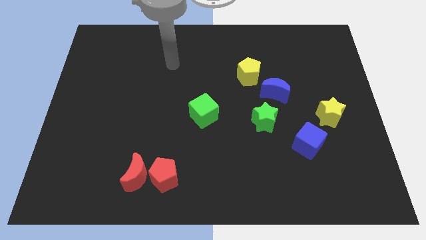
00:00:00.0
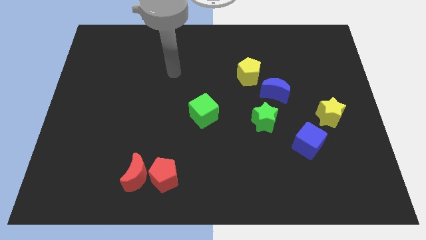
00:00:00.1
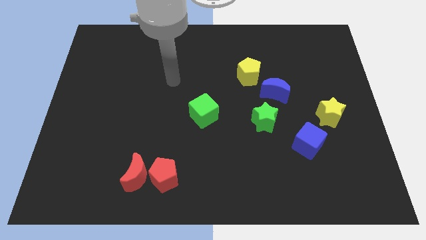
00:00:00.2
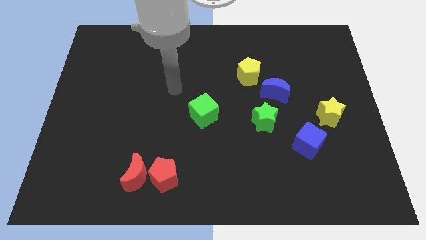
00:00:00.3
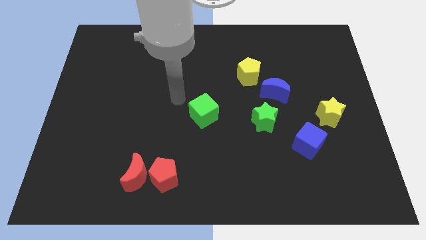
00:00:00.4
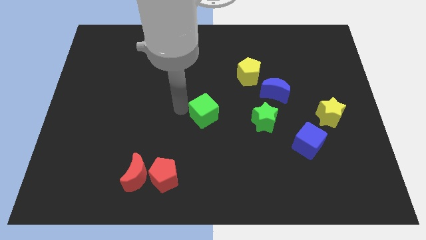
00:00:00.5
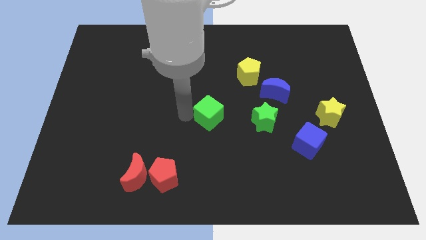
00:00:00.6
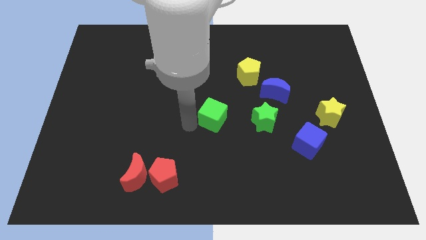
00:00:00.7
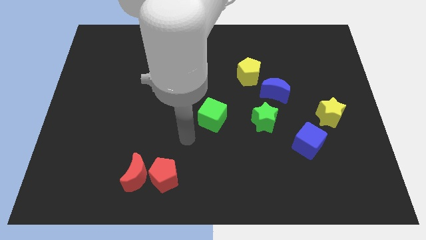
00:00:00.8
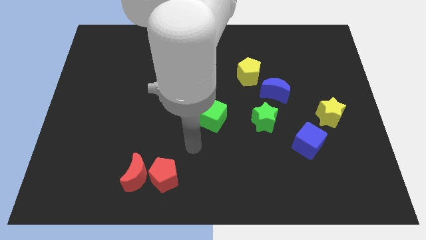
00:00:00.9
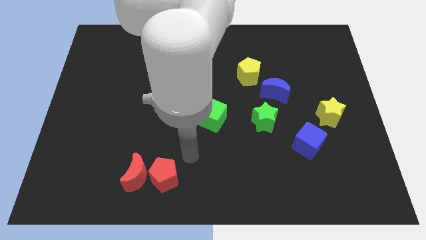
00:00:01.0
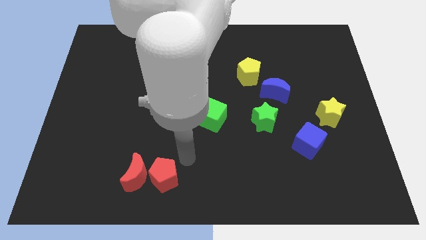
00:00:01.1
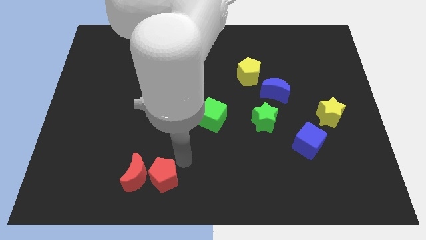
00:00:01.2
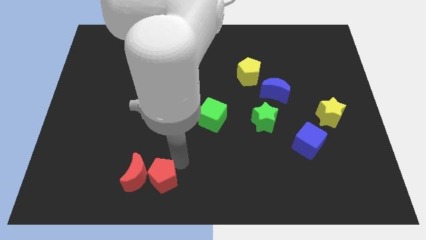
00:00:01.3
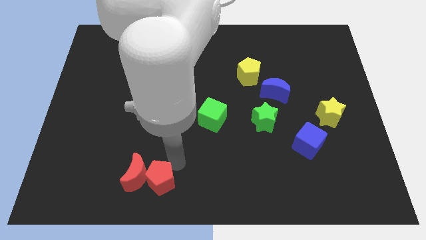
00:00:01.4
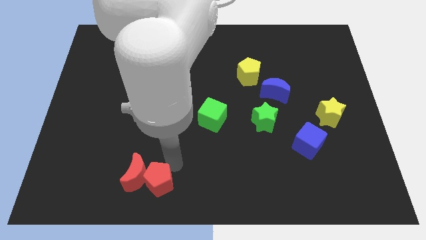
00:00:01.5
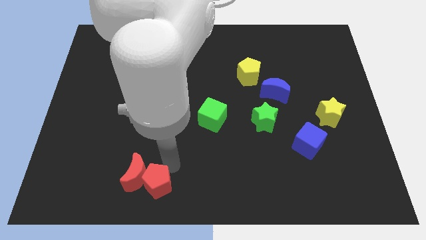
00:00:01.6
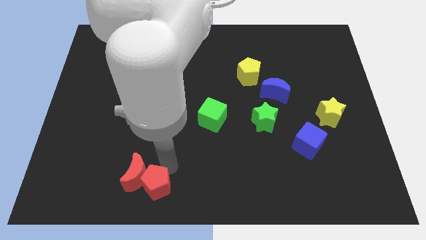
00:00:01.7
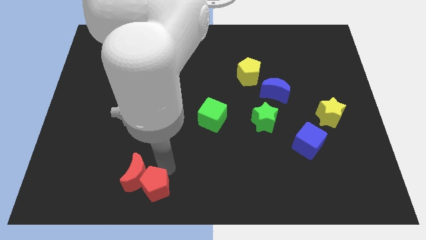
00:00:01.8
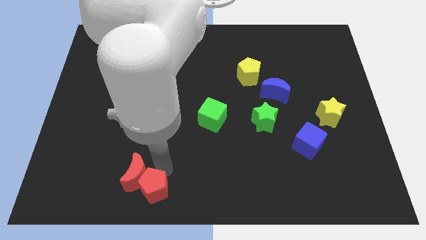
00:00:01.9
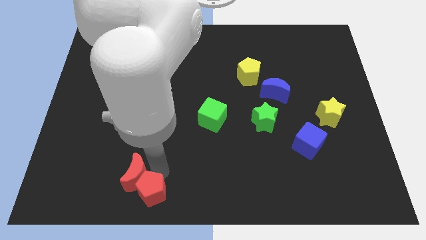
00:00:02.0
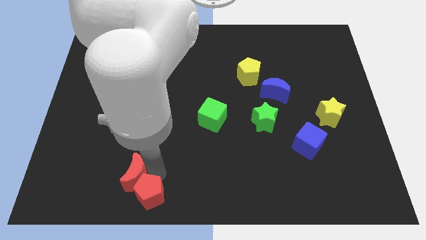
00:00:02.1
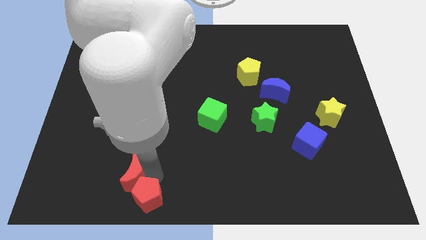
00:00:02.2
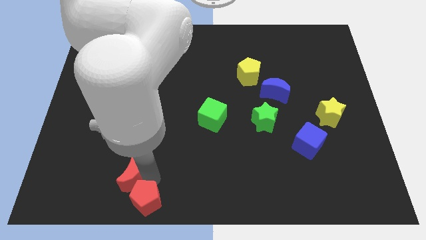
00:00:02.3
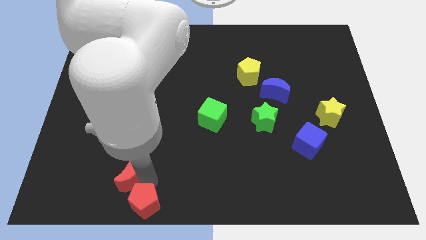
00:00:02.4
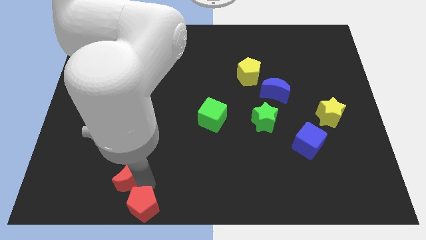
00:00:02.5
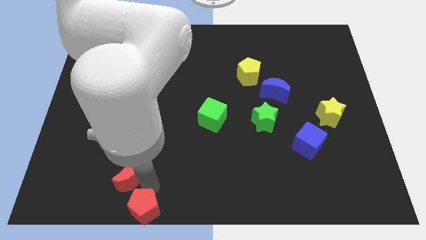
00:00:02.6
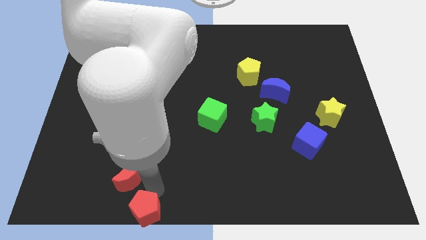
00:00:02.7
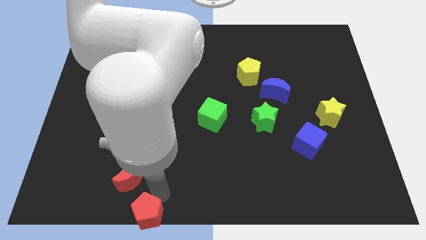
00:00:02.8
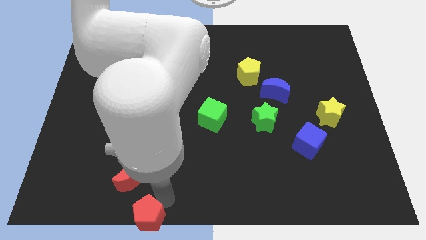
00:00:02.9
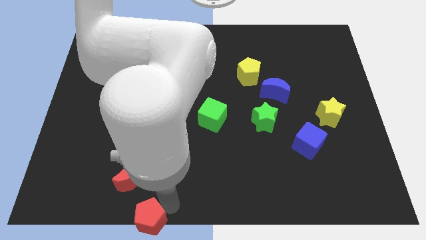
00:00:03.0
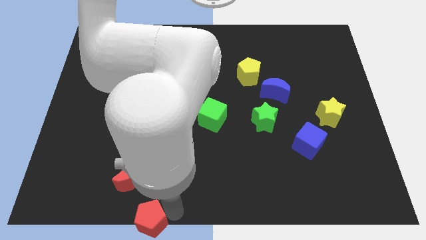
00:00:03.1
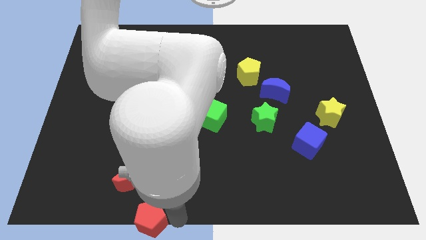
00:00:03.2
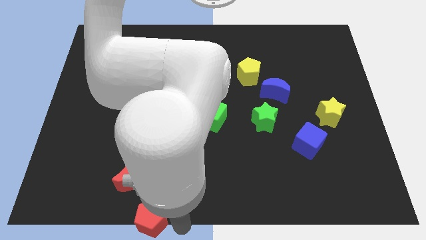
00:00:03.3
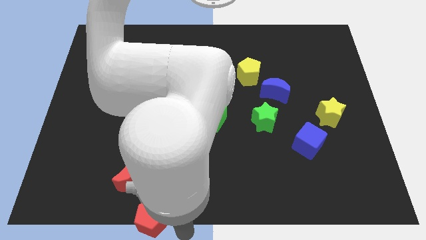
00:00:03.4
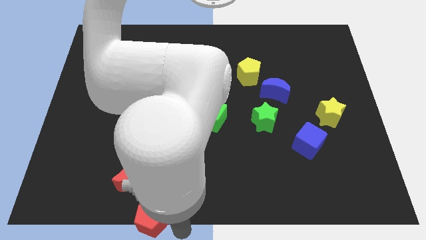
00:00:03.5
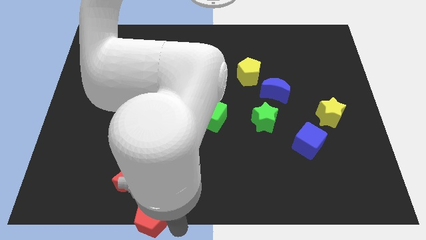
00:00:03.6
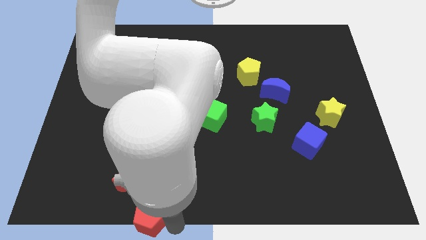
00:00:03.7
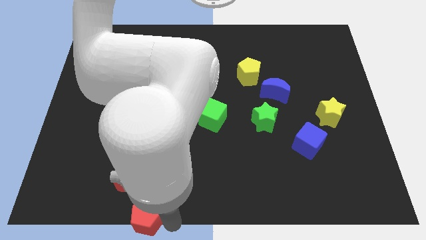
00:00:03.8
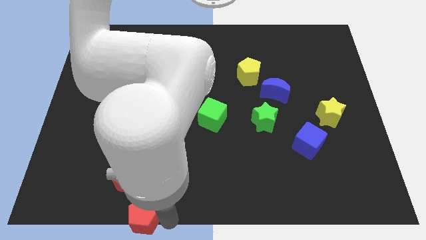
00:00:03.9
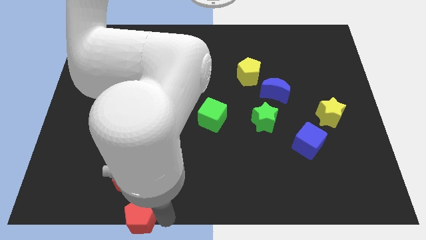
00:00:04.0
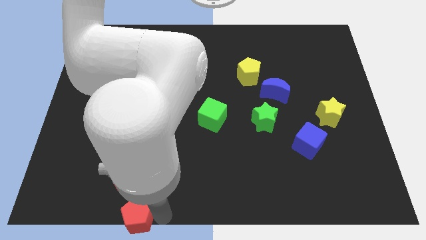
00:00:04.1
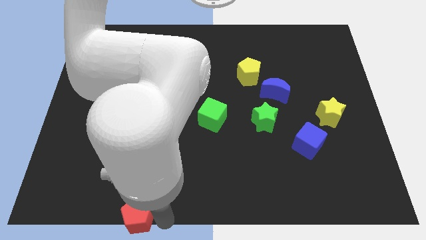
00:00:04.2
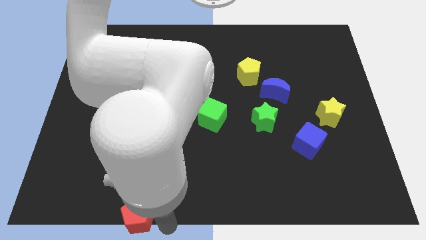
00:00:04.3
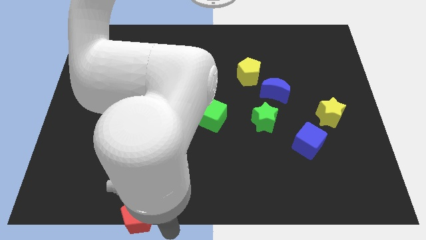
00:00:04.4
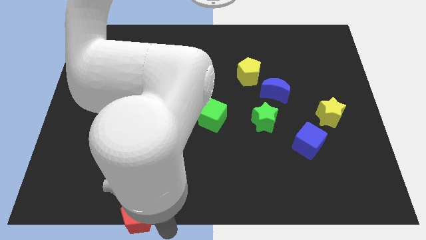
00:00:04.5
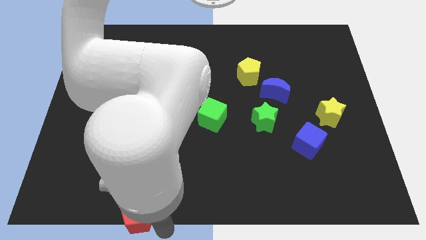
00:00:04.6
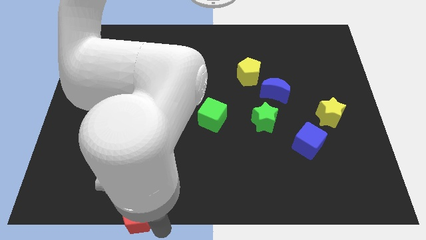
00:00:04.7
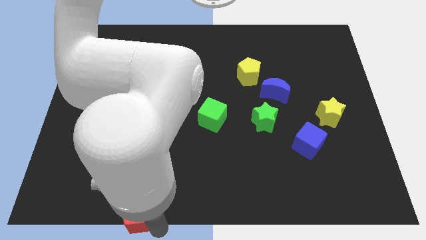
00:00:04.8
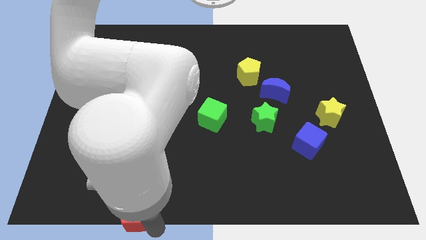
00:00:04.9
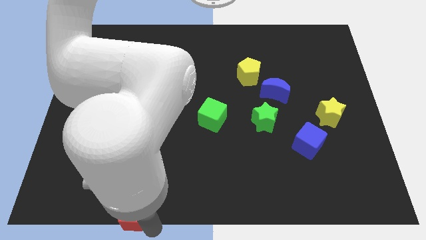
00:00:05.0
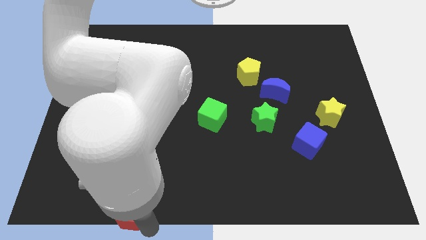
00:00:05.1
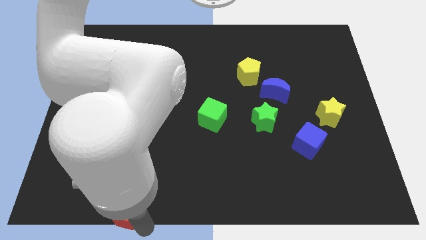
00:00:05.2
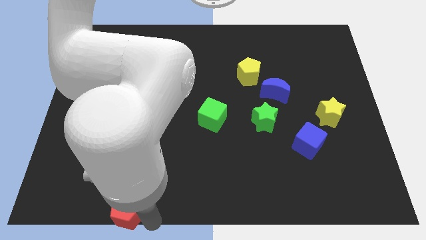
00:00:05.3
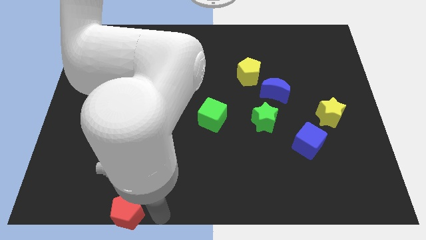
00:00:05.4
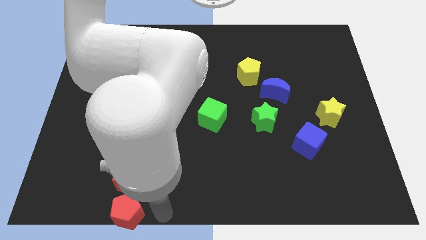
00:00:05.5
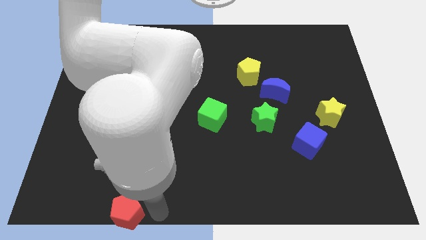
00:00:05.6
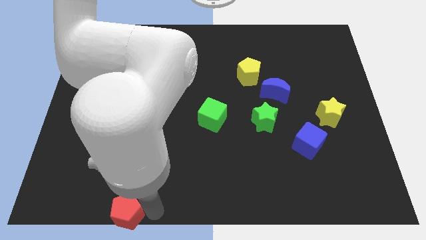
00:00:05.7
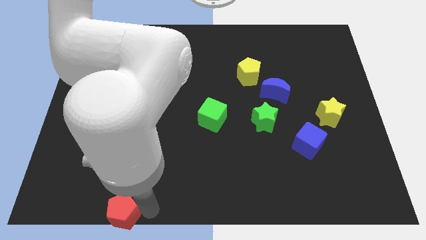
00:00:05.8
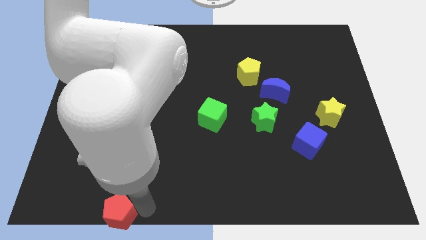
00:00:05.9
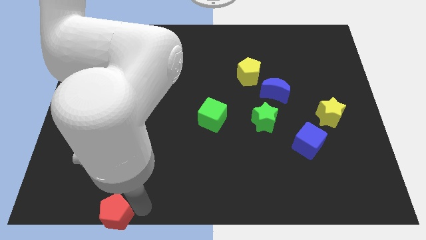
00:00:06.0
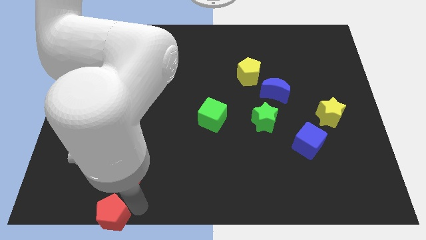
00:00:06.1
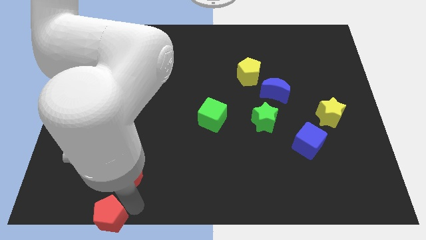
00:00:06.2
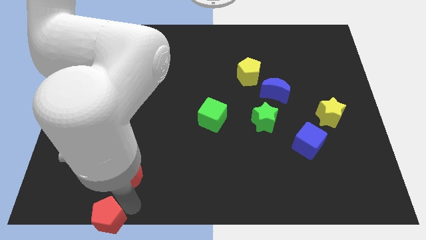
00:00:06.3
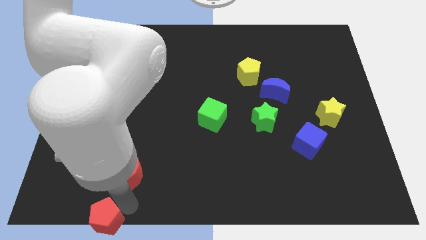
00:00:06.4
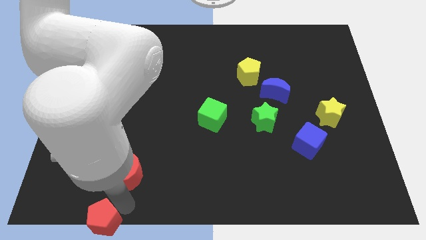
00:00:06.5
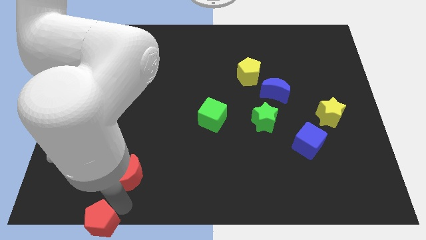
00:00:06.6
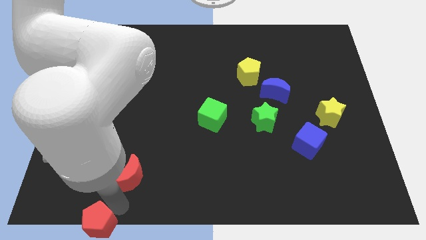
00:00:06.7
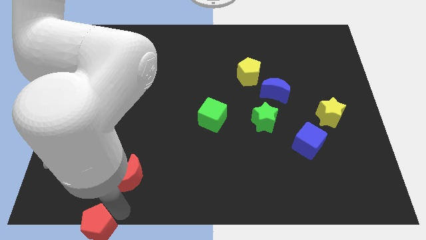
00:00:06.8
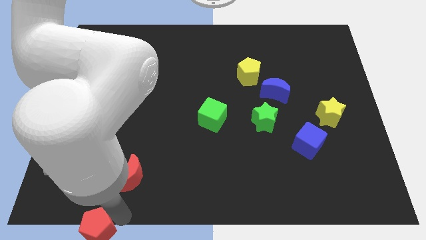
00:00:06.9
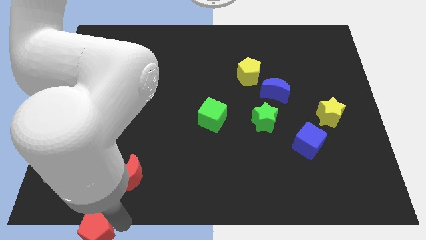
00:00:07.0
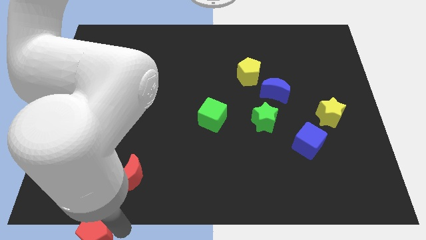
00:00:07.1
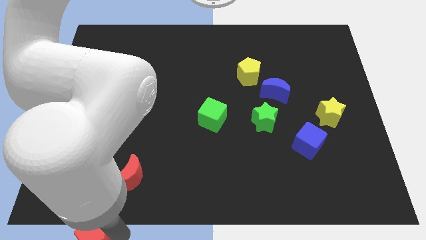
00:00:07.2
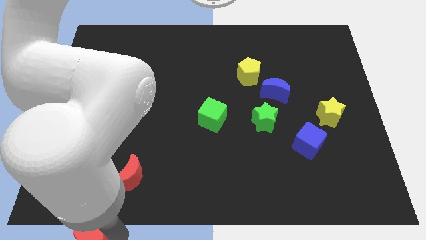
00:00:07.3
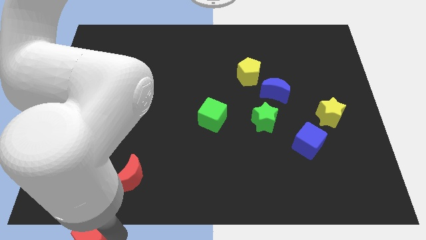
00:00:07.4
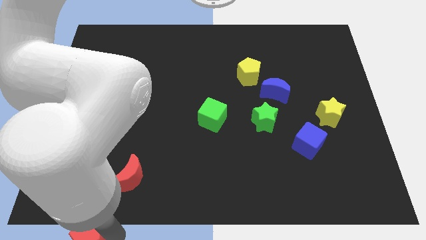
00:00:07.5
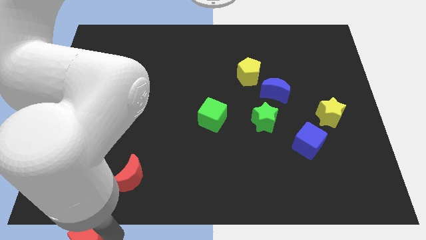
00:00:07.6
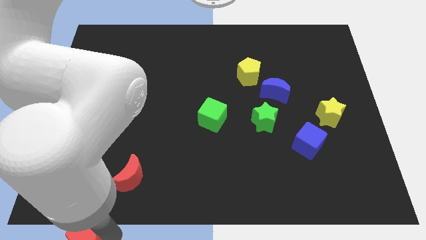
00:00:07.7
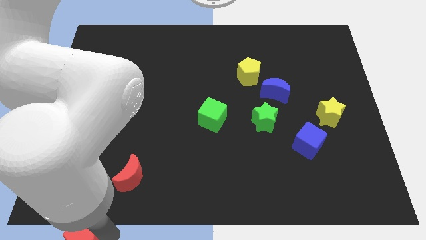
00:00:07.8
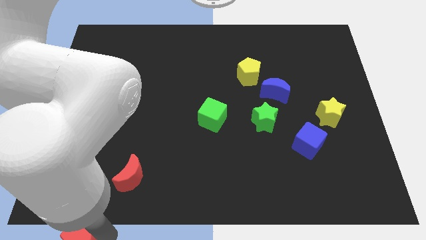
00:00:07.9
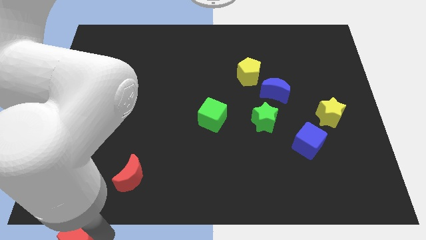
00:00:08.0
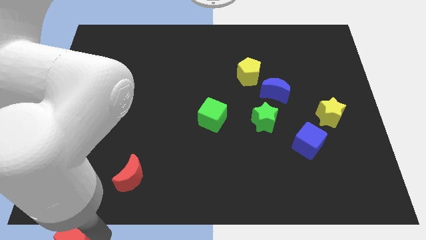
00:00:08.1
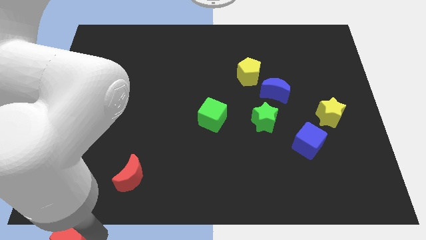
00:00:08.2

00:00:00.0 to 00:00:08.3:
move the red pentagon to the bottom left of the board
